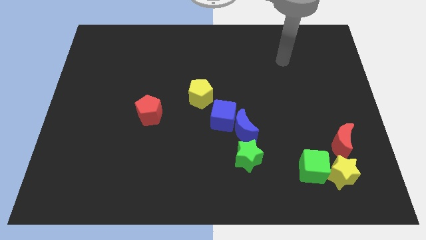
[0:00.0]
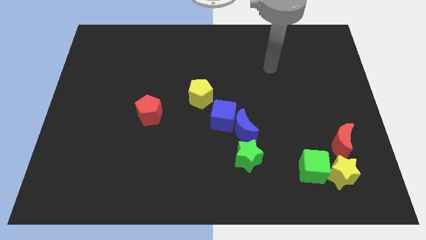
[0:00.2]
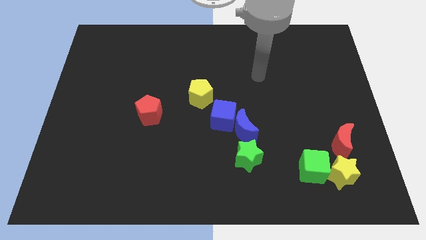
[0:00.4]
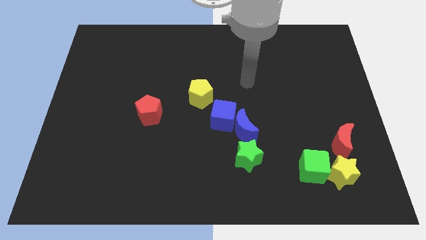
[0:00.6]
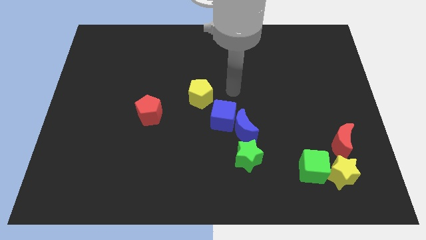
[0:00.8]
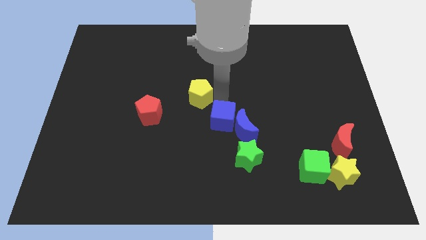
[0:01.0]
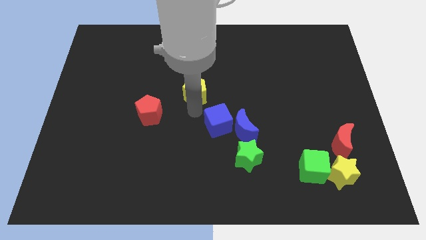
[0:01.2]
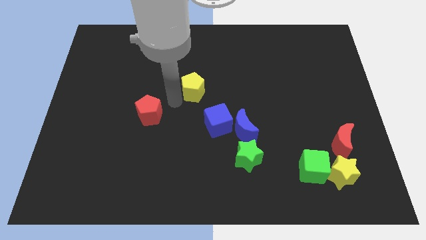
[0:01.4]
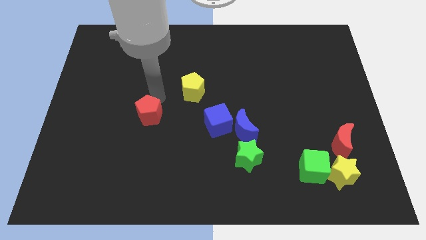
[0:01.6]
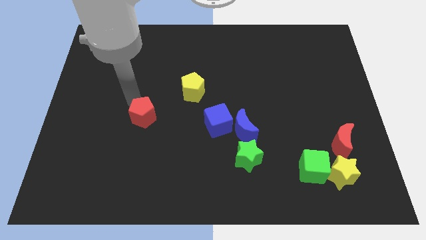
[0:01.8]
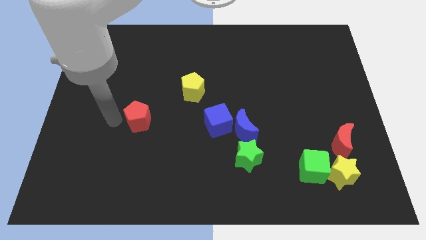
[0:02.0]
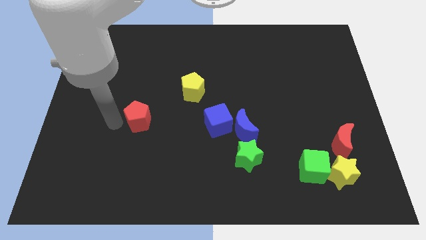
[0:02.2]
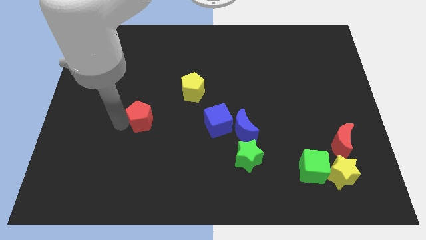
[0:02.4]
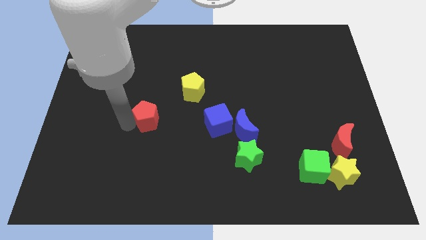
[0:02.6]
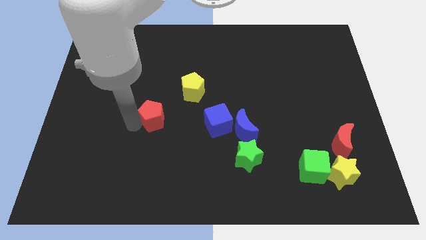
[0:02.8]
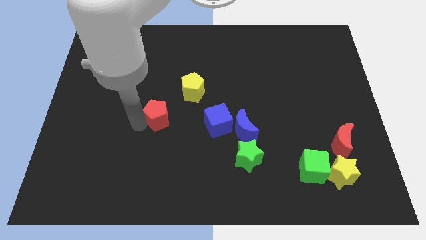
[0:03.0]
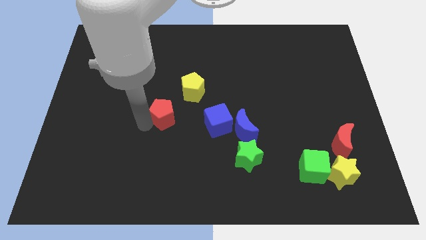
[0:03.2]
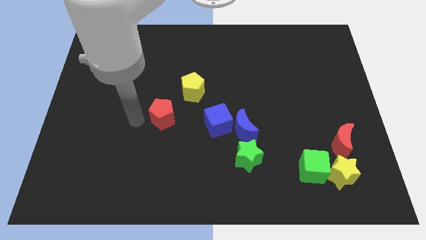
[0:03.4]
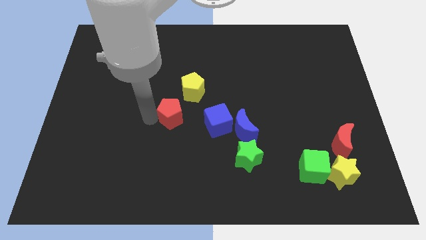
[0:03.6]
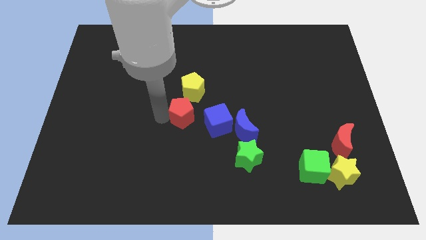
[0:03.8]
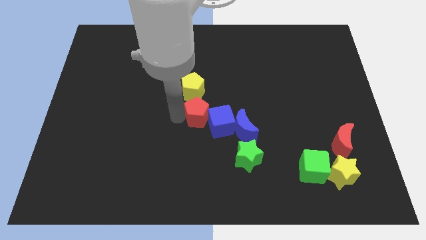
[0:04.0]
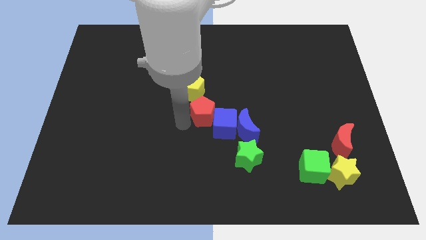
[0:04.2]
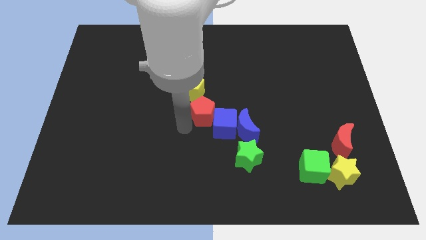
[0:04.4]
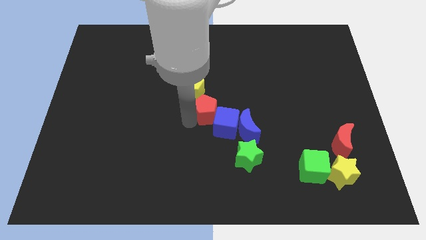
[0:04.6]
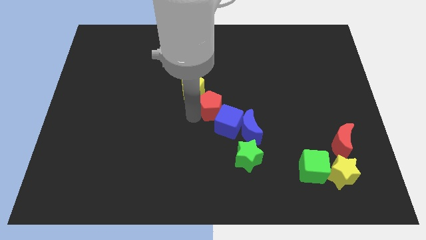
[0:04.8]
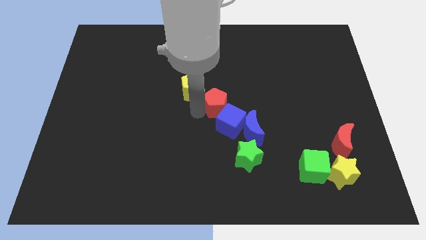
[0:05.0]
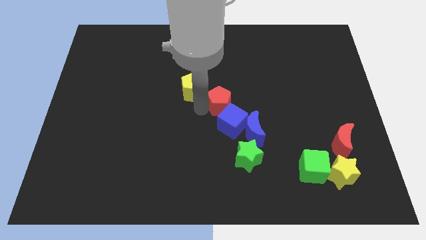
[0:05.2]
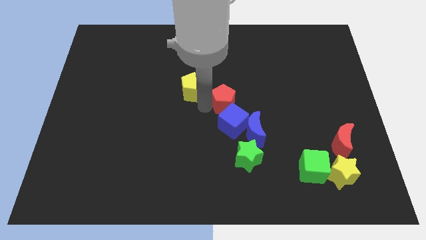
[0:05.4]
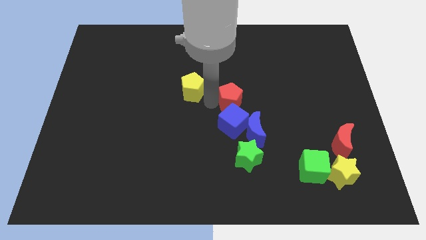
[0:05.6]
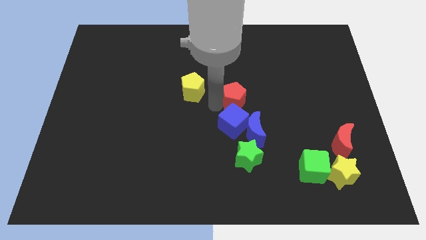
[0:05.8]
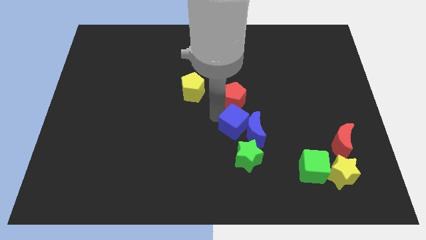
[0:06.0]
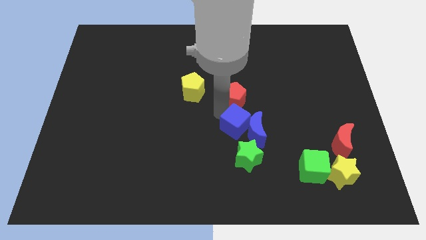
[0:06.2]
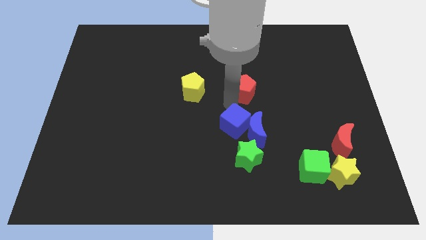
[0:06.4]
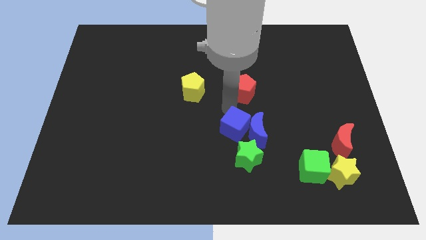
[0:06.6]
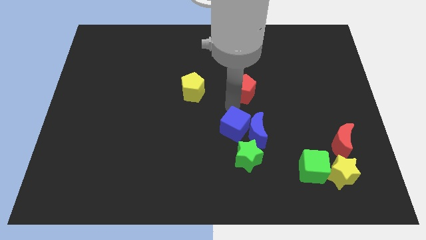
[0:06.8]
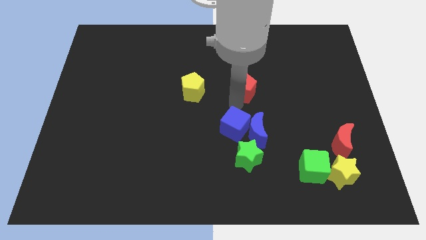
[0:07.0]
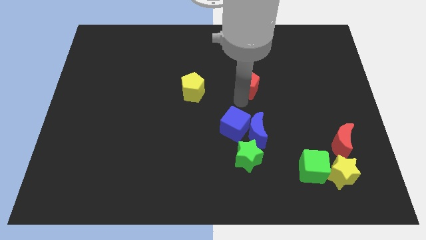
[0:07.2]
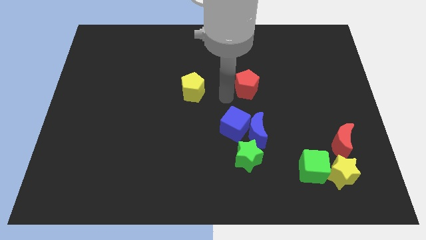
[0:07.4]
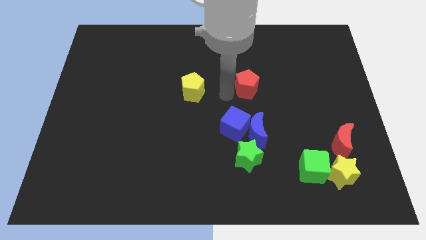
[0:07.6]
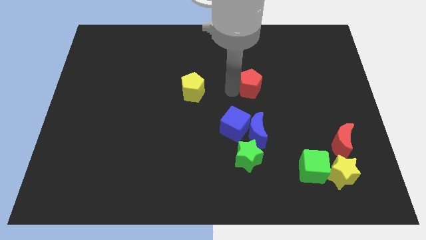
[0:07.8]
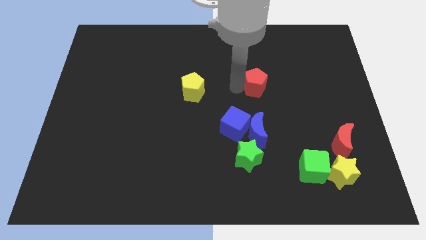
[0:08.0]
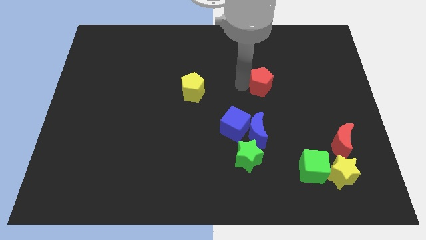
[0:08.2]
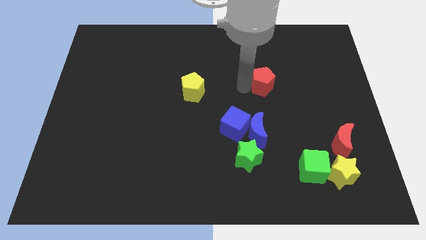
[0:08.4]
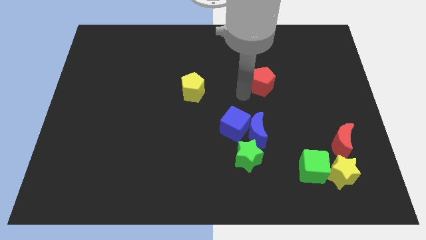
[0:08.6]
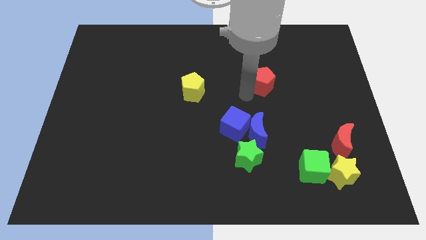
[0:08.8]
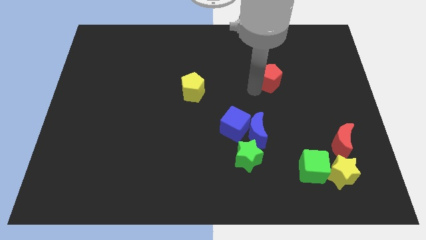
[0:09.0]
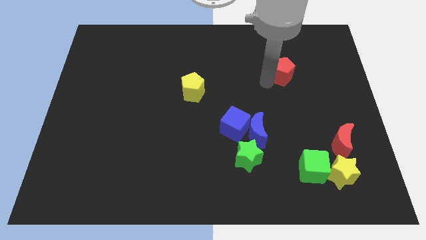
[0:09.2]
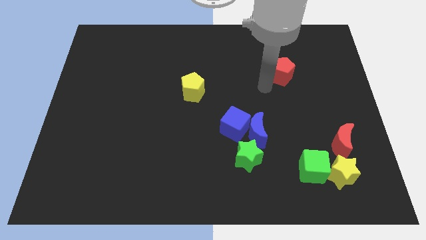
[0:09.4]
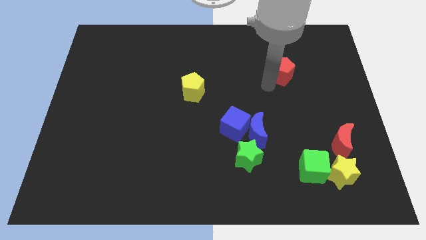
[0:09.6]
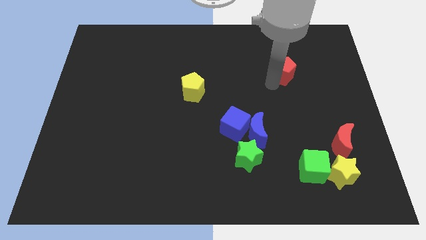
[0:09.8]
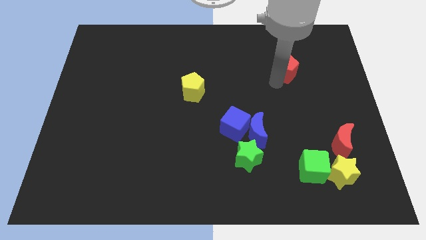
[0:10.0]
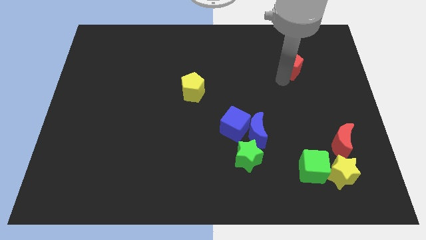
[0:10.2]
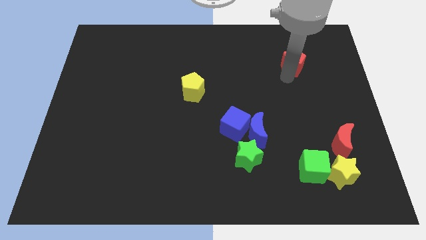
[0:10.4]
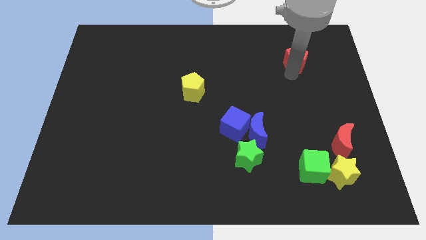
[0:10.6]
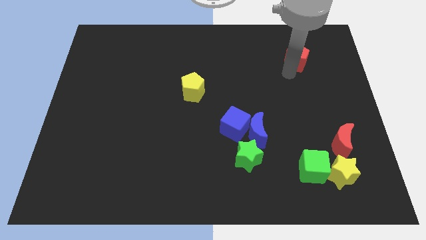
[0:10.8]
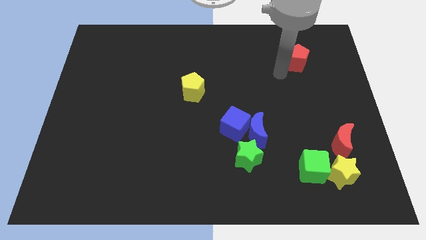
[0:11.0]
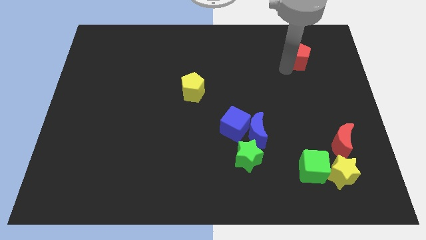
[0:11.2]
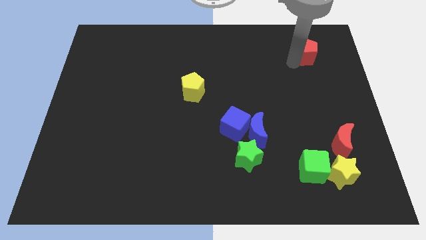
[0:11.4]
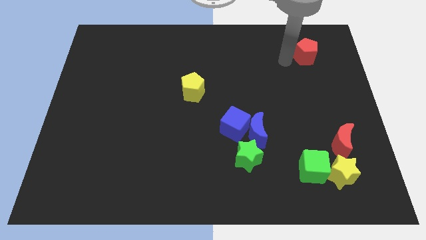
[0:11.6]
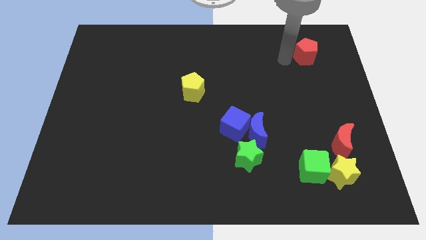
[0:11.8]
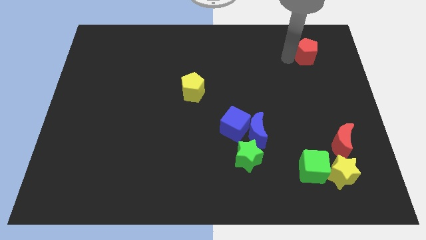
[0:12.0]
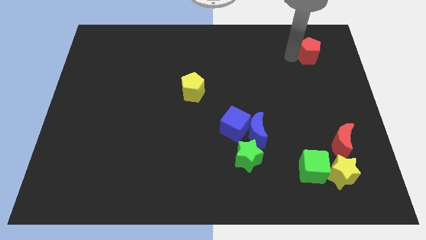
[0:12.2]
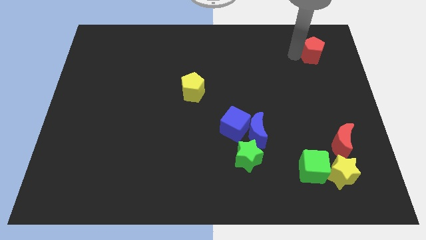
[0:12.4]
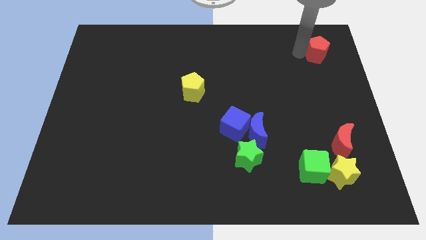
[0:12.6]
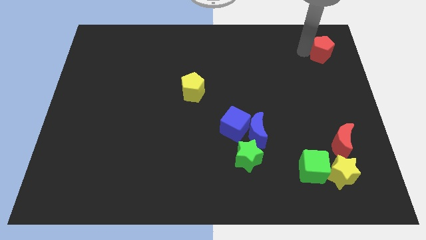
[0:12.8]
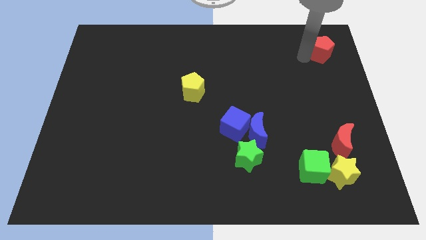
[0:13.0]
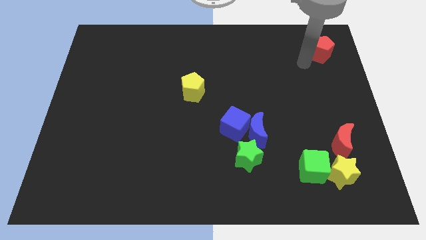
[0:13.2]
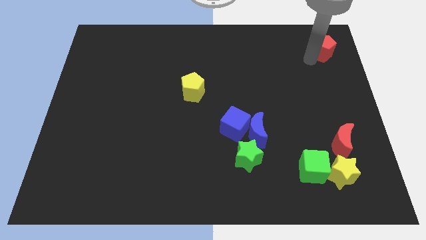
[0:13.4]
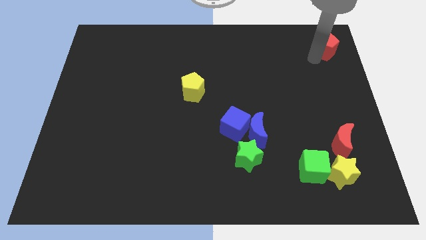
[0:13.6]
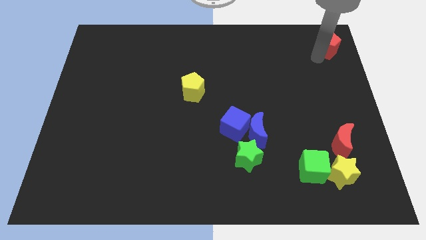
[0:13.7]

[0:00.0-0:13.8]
put the red pentagon to the top right
